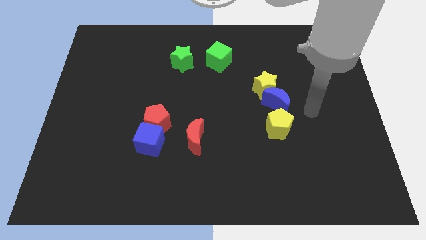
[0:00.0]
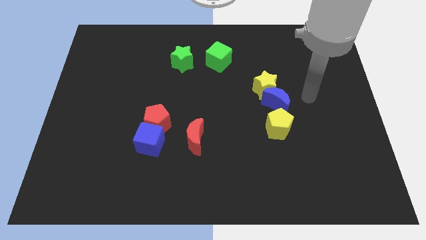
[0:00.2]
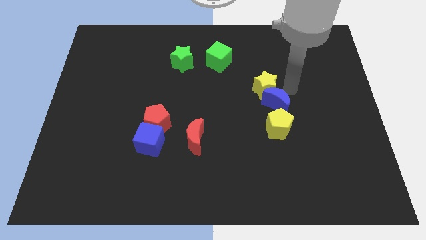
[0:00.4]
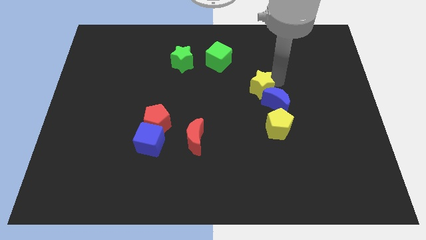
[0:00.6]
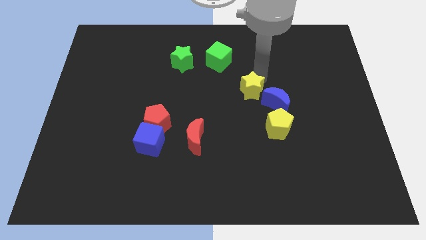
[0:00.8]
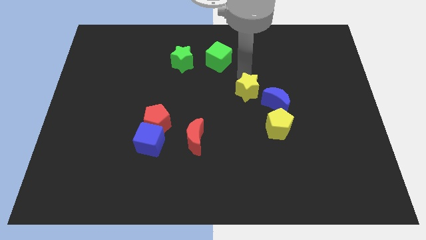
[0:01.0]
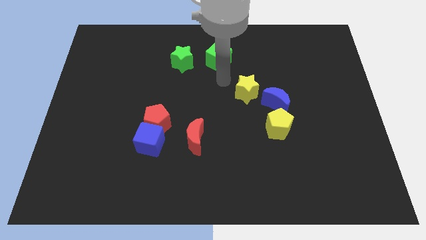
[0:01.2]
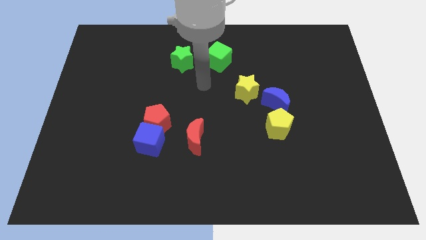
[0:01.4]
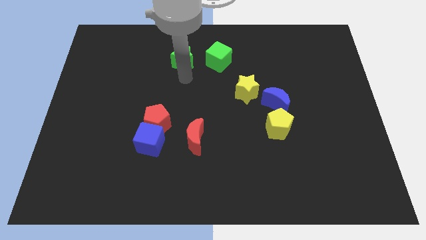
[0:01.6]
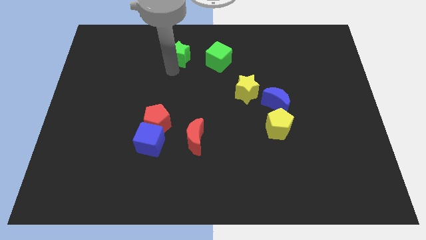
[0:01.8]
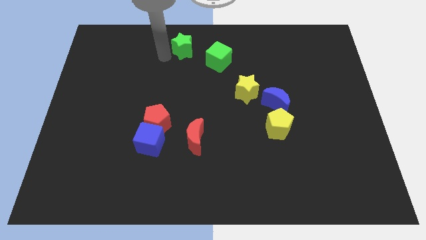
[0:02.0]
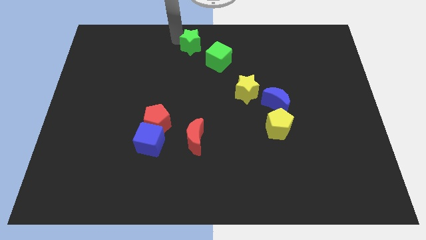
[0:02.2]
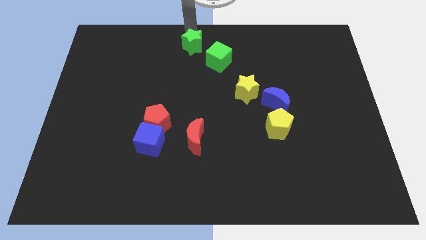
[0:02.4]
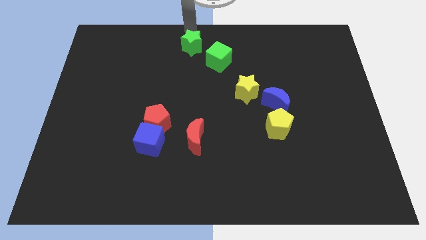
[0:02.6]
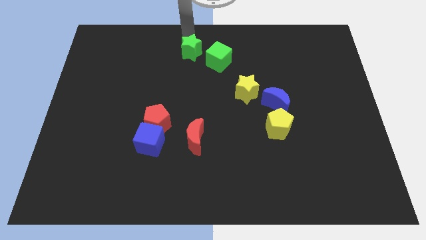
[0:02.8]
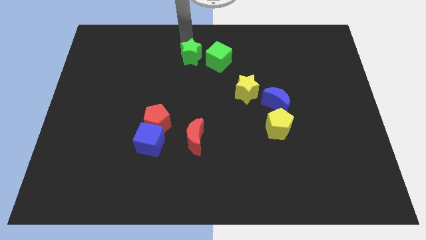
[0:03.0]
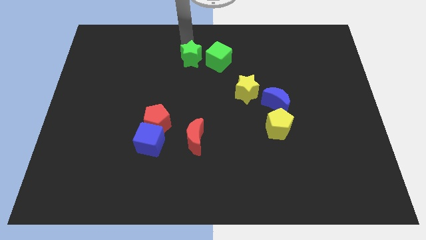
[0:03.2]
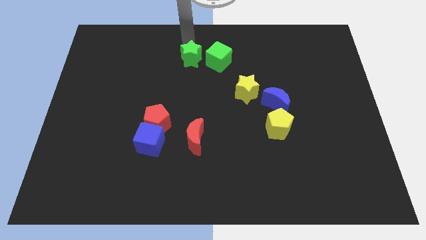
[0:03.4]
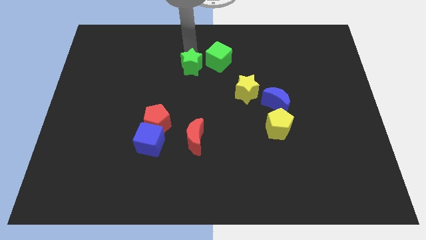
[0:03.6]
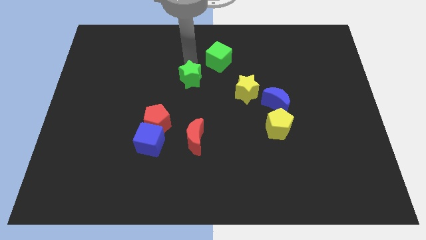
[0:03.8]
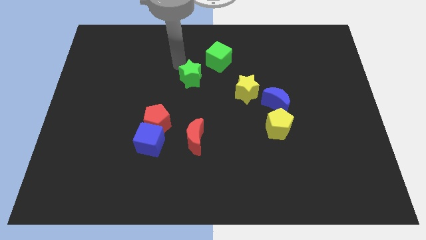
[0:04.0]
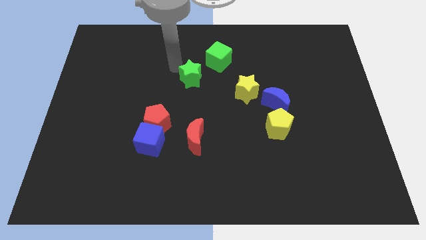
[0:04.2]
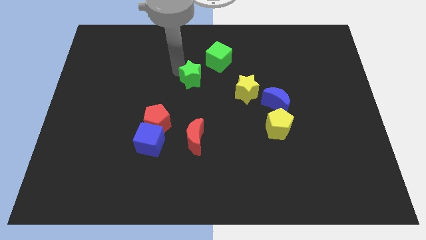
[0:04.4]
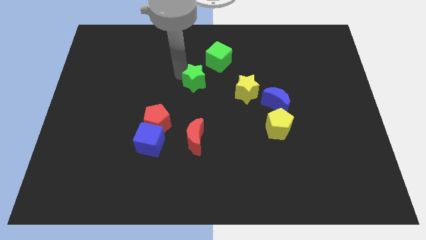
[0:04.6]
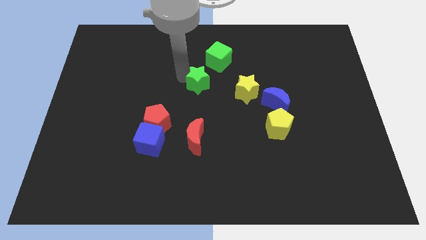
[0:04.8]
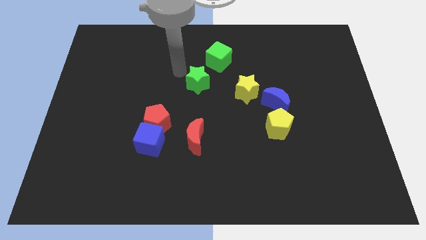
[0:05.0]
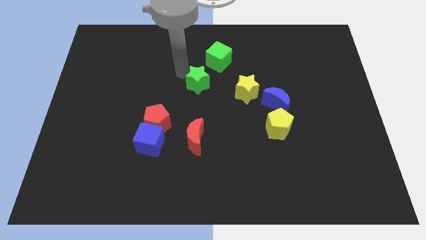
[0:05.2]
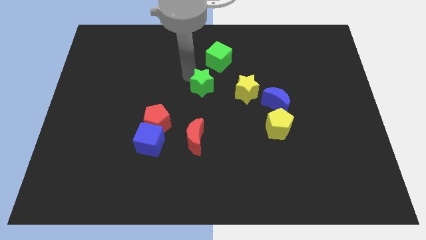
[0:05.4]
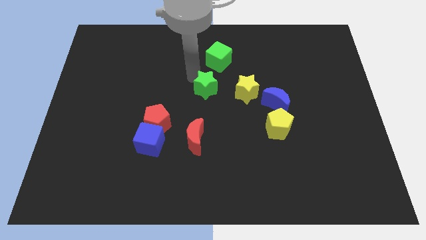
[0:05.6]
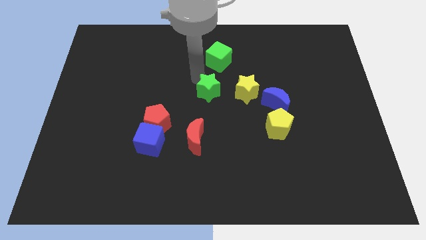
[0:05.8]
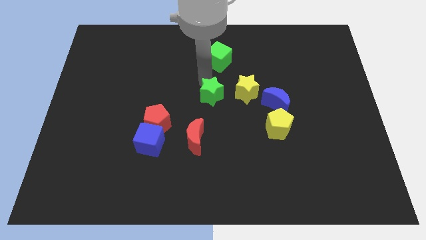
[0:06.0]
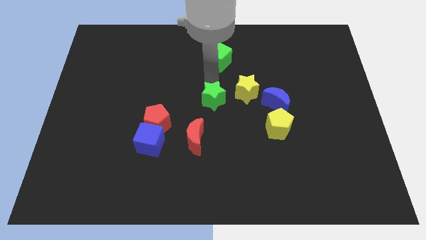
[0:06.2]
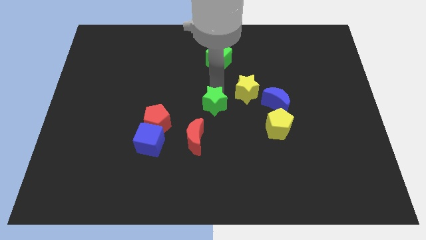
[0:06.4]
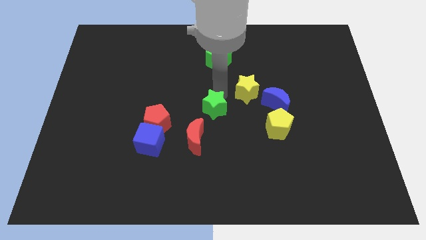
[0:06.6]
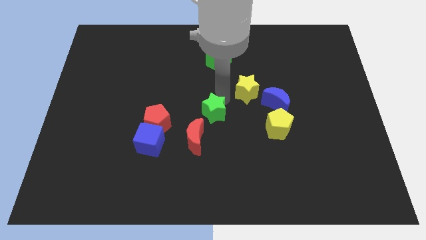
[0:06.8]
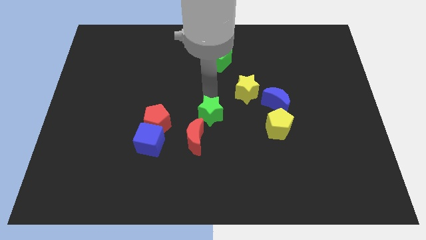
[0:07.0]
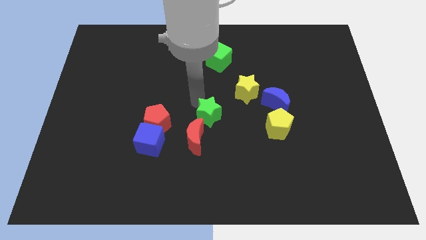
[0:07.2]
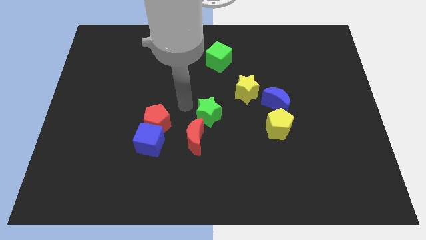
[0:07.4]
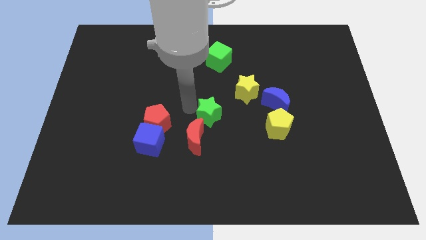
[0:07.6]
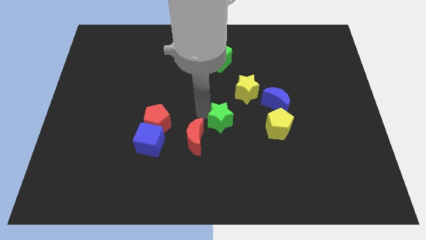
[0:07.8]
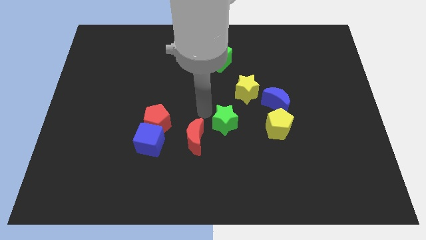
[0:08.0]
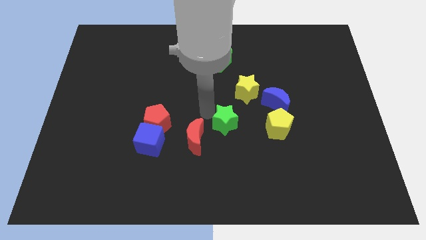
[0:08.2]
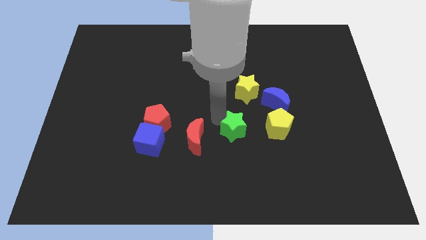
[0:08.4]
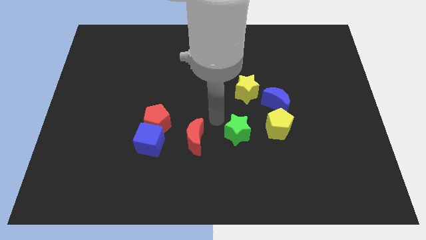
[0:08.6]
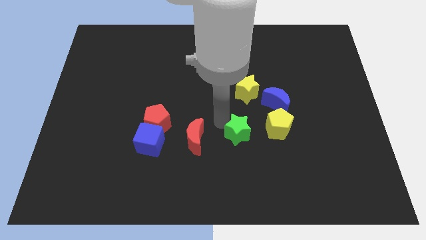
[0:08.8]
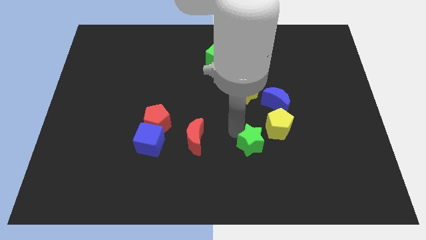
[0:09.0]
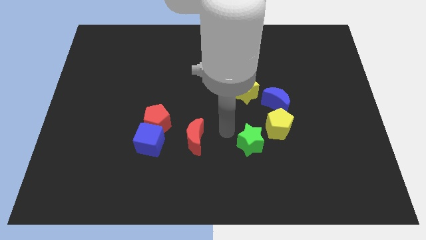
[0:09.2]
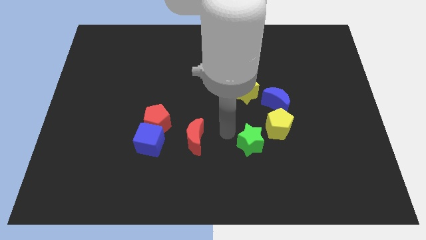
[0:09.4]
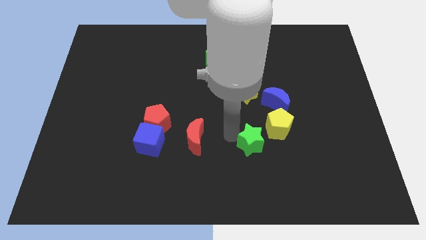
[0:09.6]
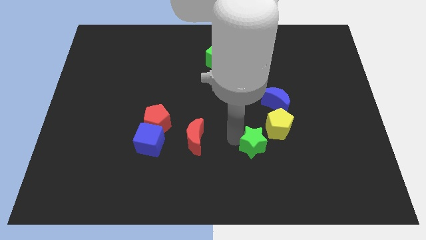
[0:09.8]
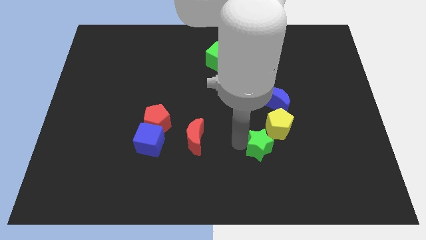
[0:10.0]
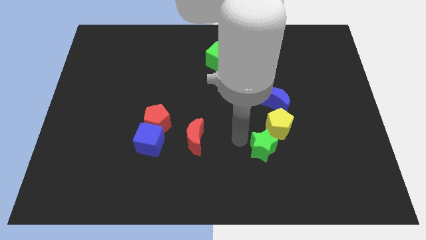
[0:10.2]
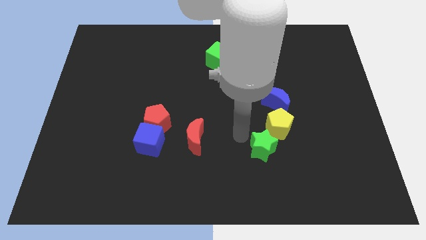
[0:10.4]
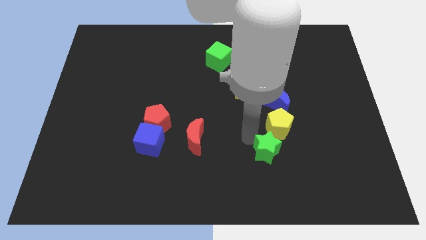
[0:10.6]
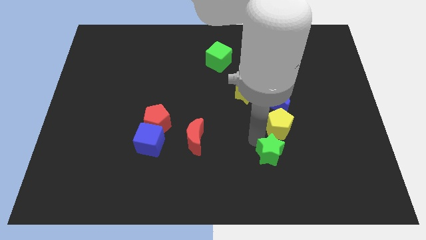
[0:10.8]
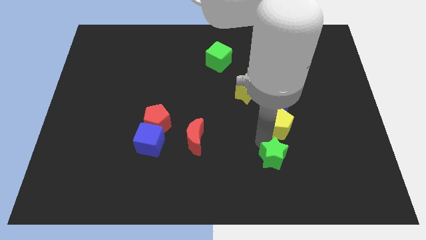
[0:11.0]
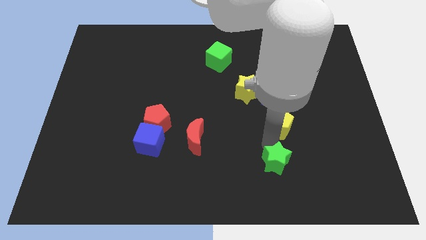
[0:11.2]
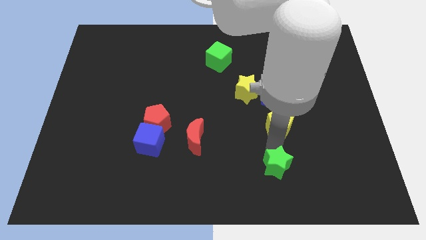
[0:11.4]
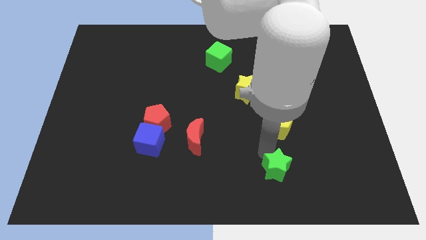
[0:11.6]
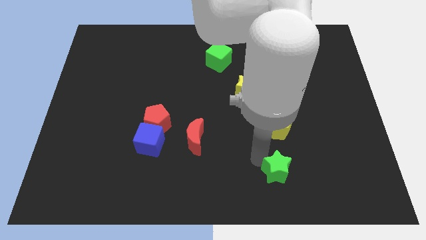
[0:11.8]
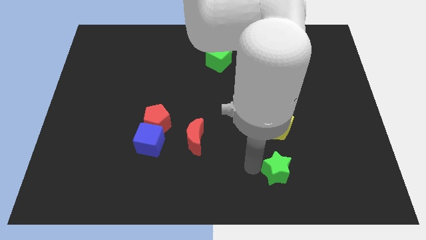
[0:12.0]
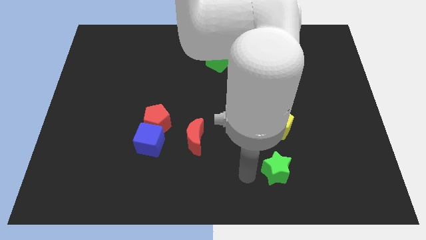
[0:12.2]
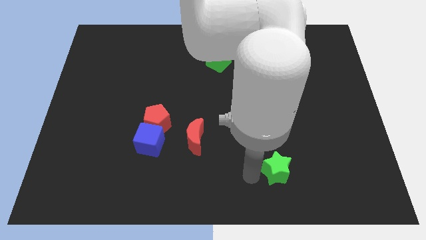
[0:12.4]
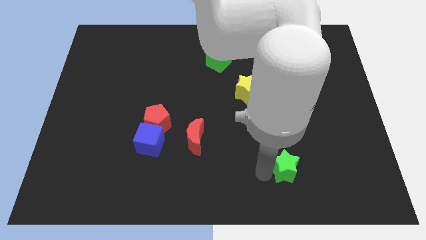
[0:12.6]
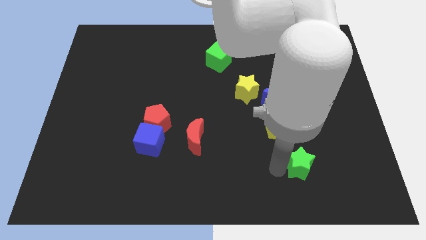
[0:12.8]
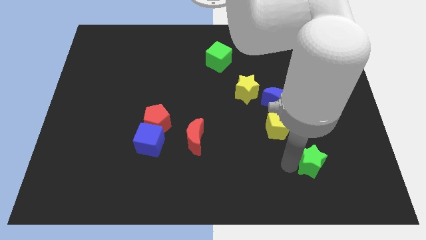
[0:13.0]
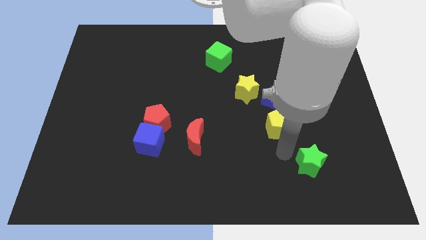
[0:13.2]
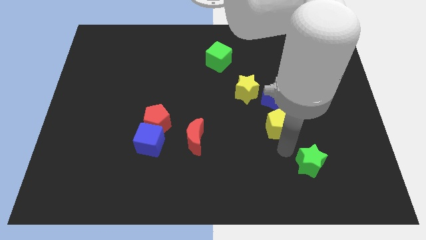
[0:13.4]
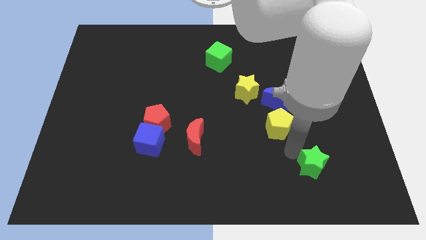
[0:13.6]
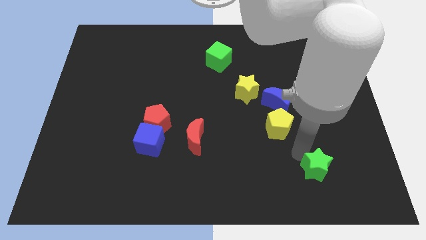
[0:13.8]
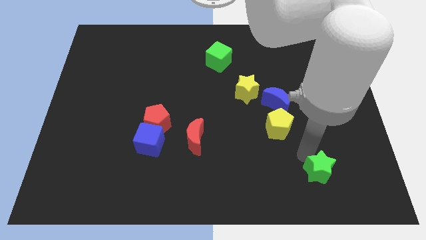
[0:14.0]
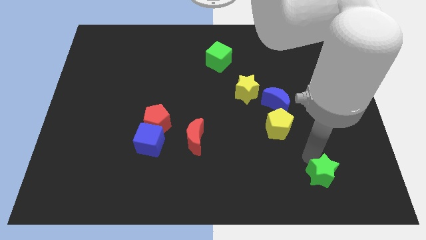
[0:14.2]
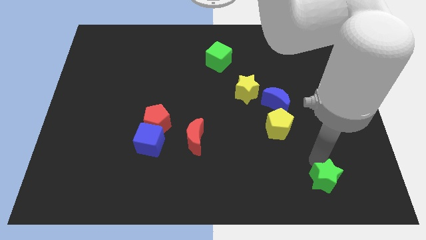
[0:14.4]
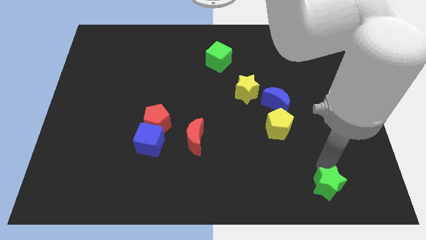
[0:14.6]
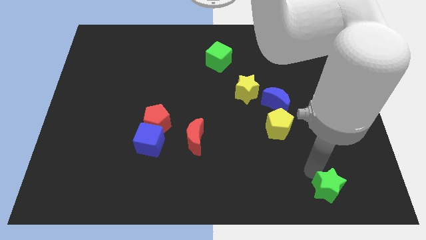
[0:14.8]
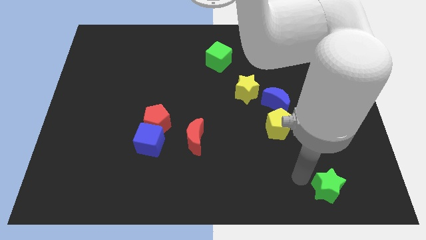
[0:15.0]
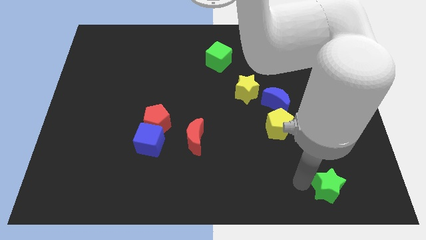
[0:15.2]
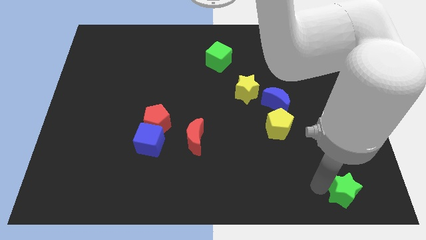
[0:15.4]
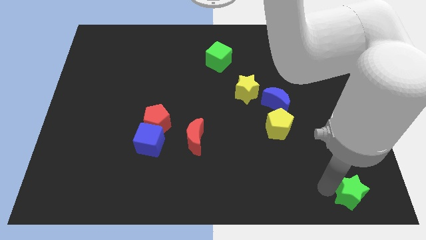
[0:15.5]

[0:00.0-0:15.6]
push the green star to the bottom right
